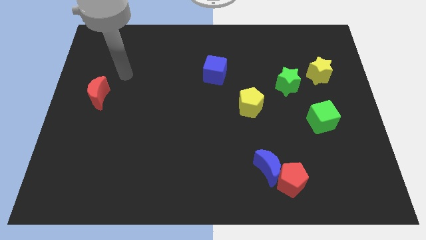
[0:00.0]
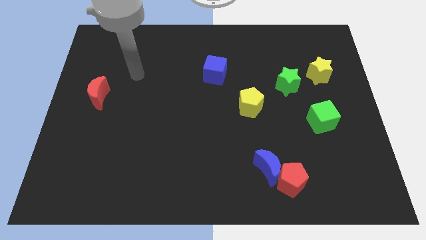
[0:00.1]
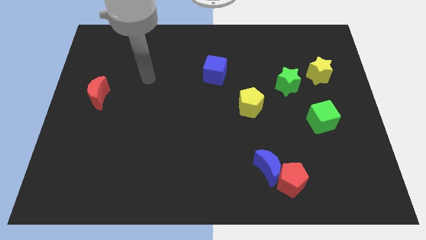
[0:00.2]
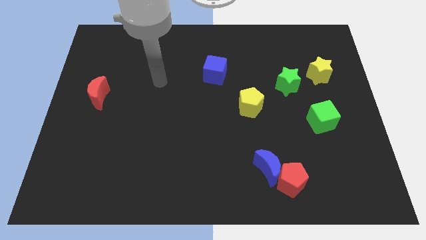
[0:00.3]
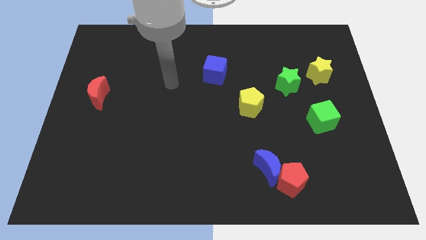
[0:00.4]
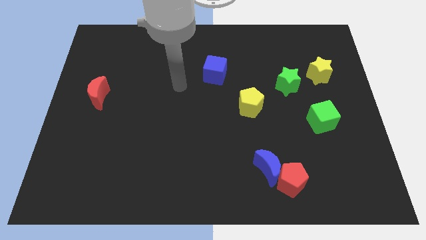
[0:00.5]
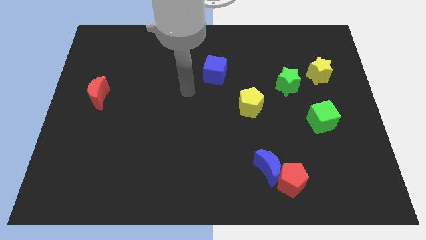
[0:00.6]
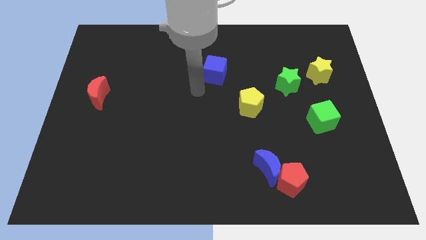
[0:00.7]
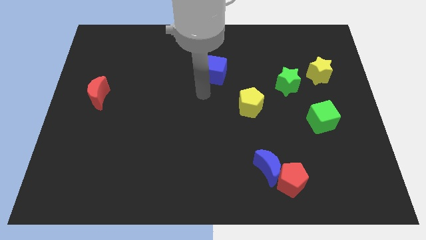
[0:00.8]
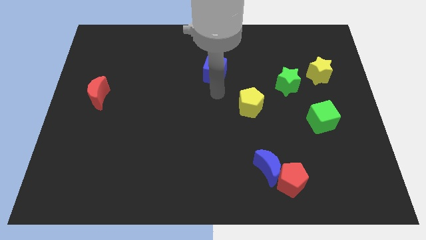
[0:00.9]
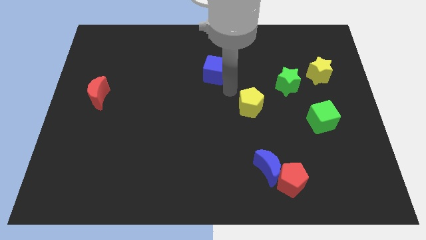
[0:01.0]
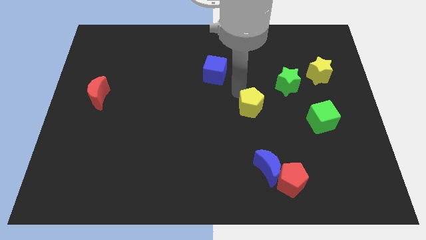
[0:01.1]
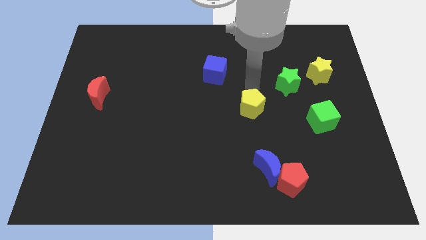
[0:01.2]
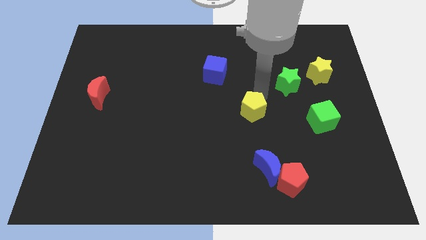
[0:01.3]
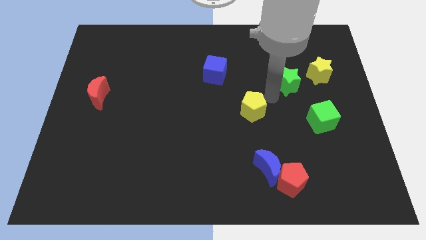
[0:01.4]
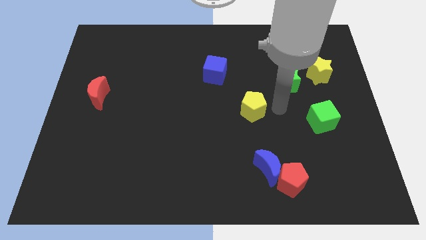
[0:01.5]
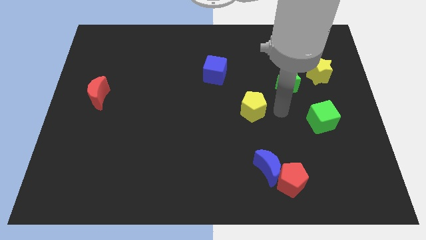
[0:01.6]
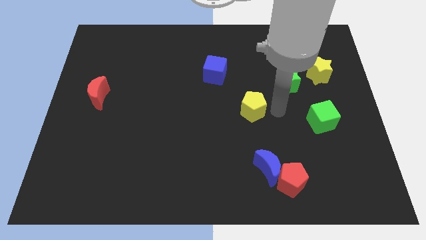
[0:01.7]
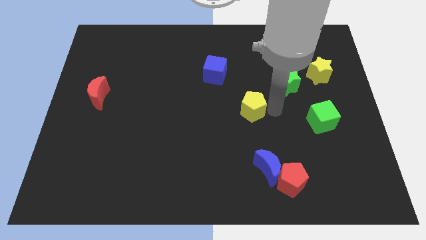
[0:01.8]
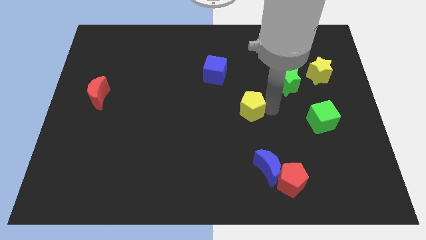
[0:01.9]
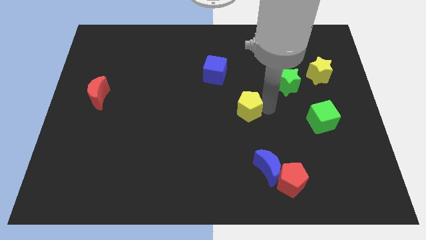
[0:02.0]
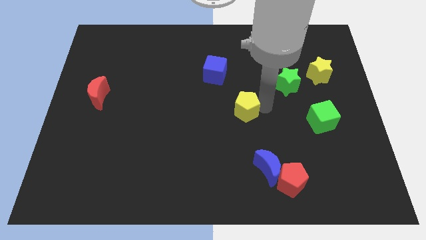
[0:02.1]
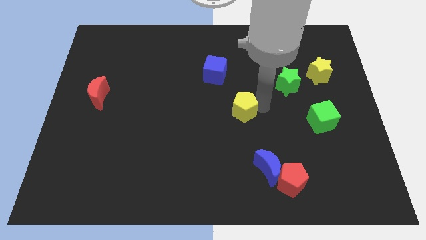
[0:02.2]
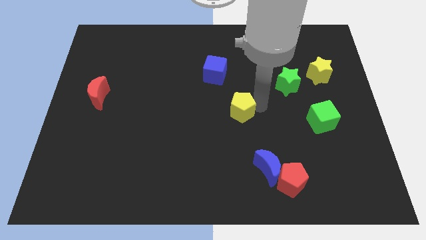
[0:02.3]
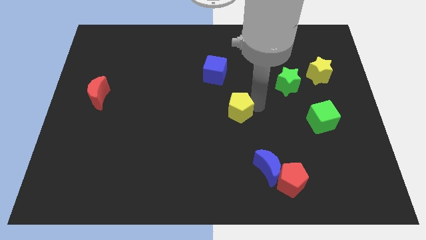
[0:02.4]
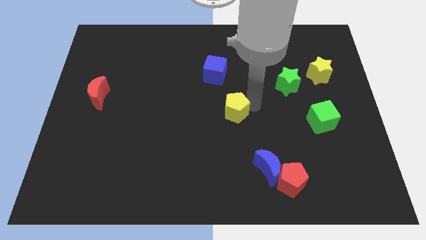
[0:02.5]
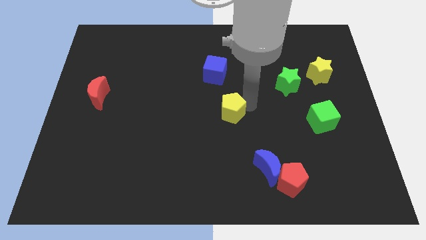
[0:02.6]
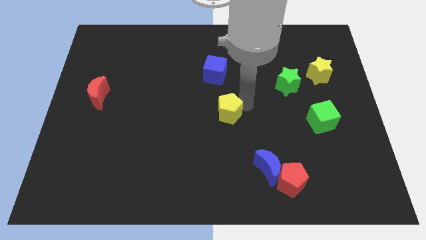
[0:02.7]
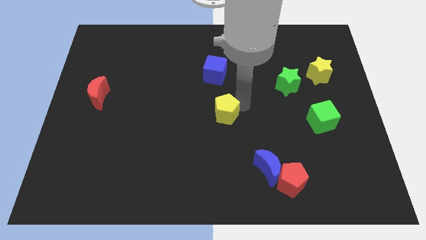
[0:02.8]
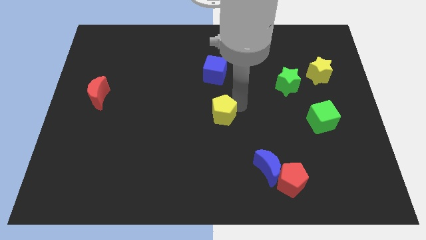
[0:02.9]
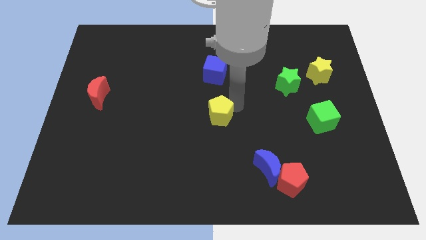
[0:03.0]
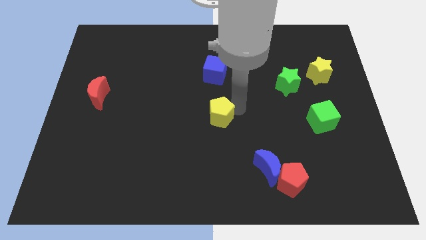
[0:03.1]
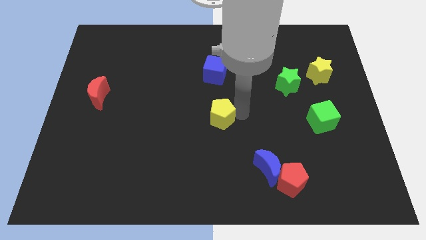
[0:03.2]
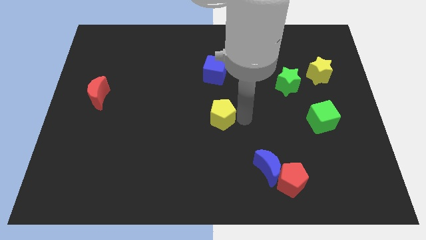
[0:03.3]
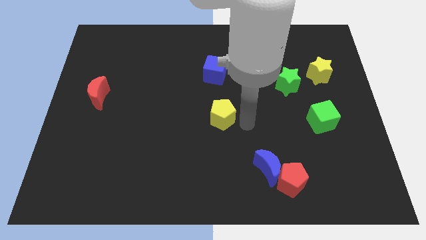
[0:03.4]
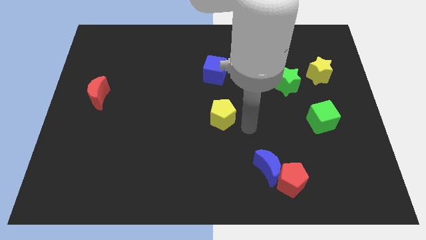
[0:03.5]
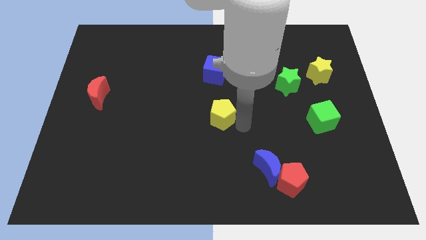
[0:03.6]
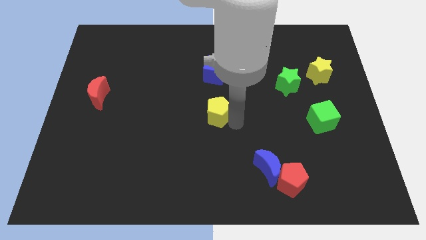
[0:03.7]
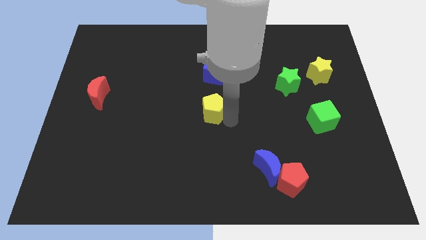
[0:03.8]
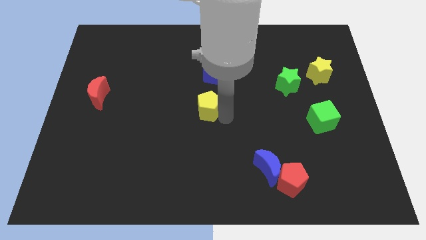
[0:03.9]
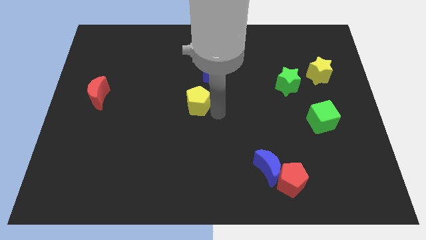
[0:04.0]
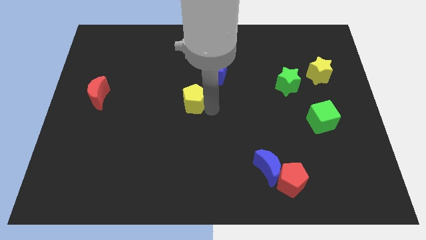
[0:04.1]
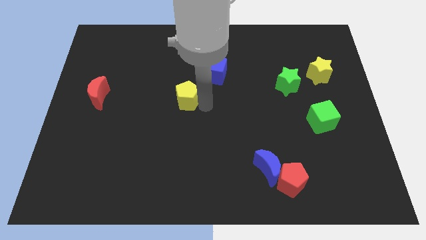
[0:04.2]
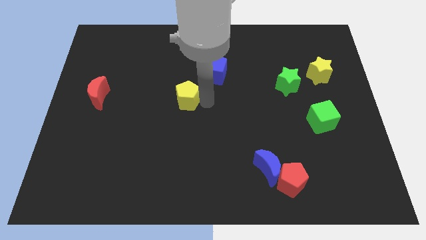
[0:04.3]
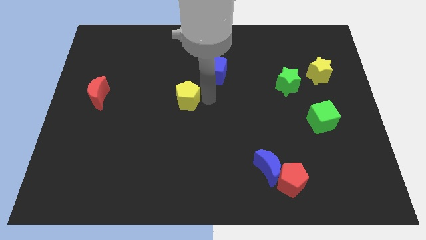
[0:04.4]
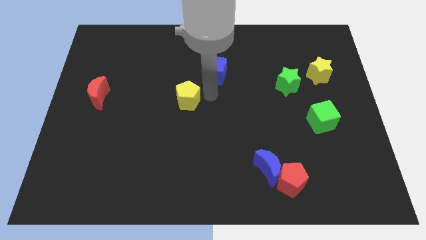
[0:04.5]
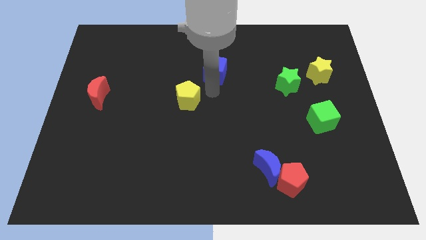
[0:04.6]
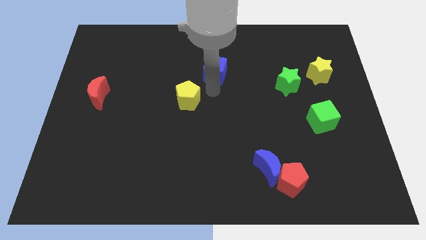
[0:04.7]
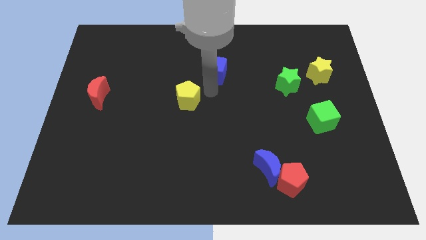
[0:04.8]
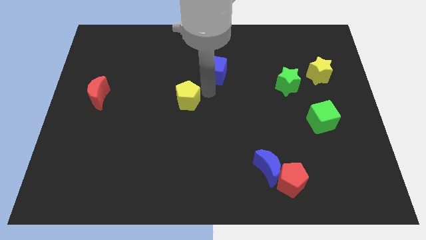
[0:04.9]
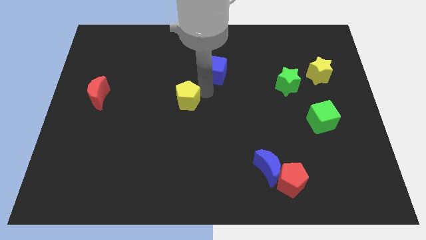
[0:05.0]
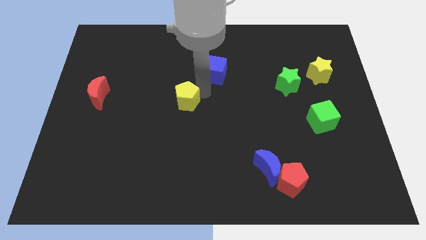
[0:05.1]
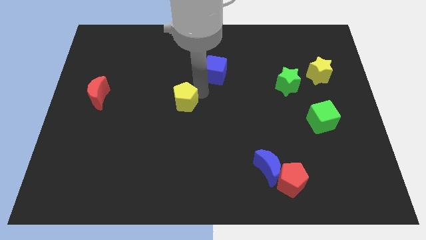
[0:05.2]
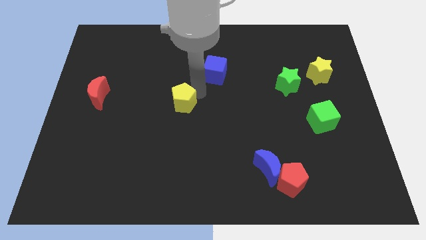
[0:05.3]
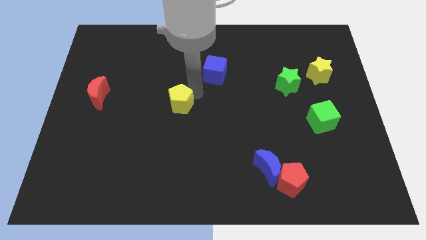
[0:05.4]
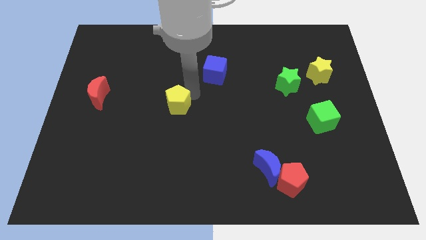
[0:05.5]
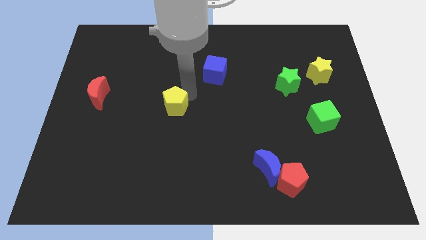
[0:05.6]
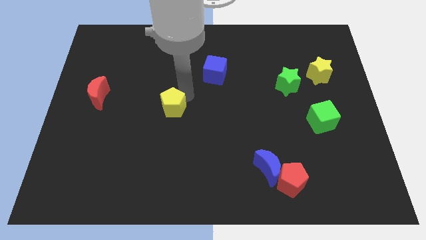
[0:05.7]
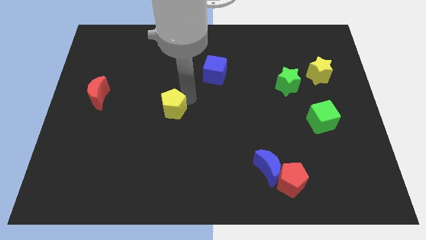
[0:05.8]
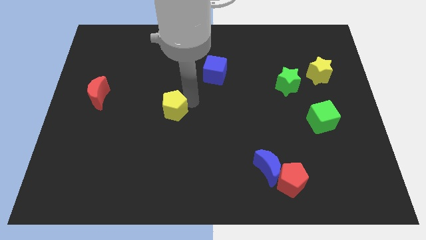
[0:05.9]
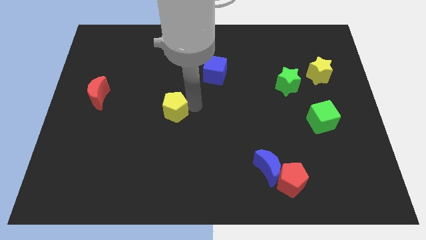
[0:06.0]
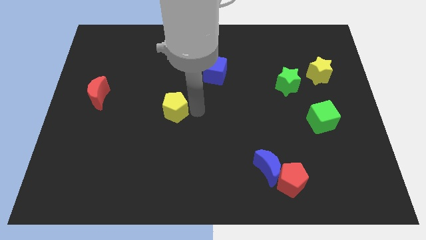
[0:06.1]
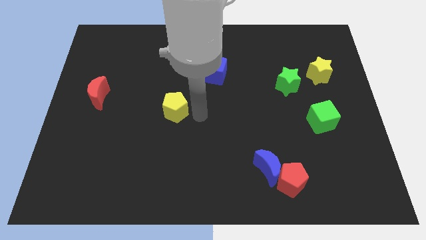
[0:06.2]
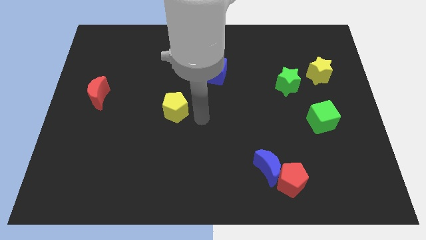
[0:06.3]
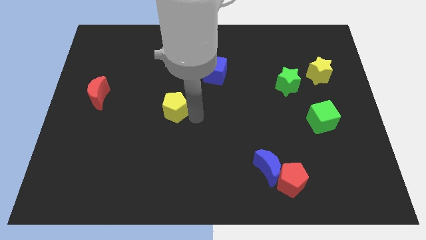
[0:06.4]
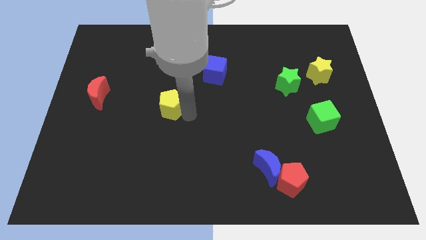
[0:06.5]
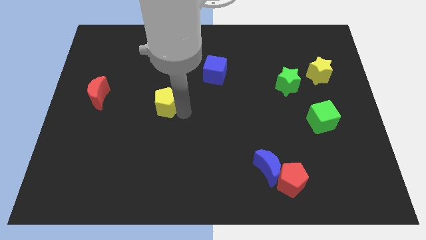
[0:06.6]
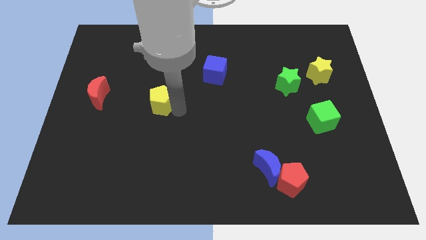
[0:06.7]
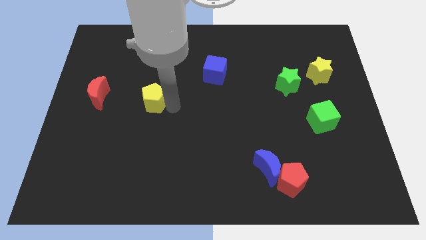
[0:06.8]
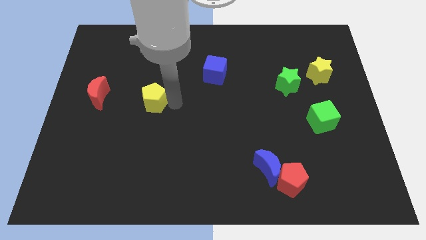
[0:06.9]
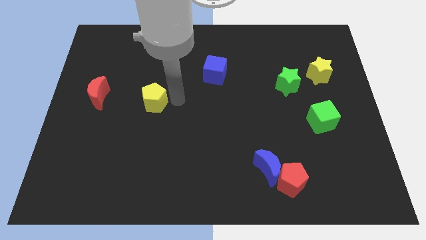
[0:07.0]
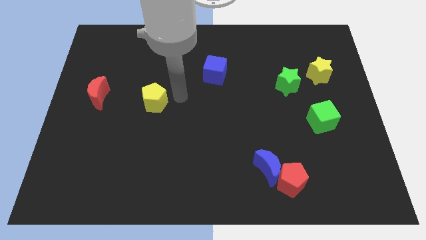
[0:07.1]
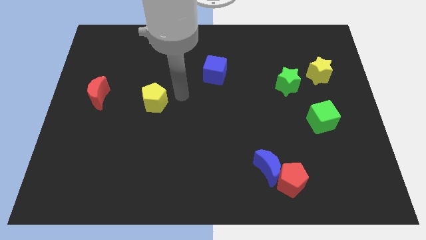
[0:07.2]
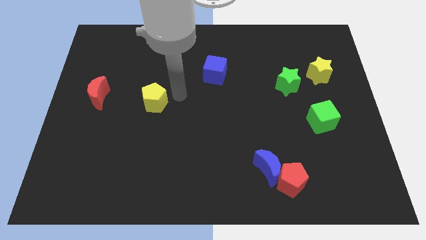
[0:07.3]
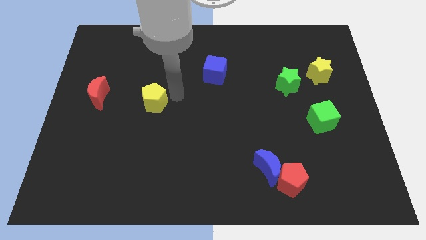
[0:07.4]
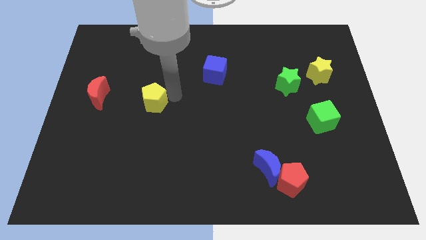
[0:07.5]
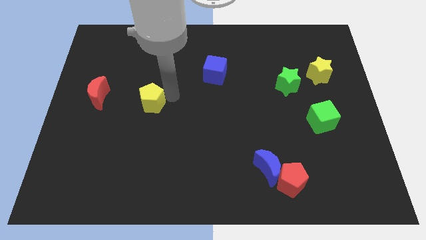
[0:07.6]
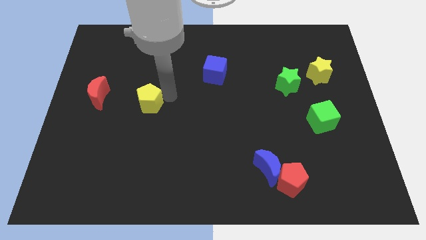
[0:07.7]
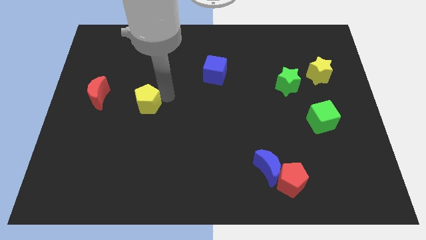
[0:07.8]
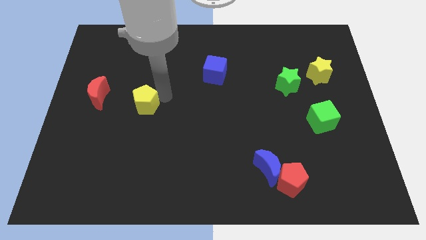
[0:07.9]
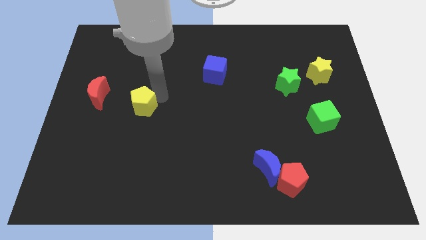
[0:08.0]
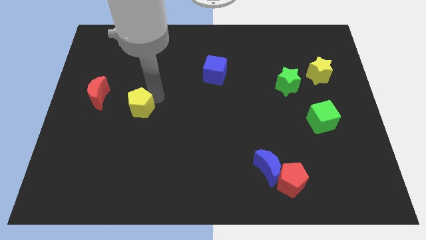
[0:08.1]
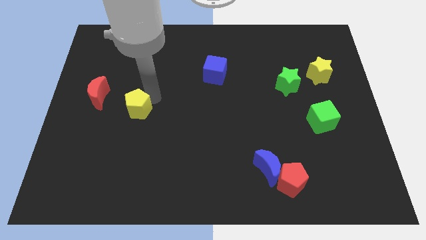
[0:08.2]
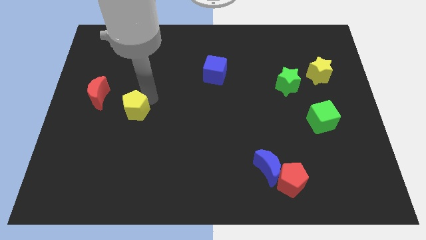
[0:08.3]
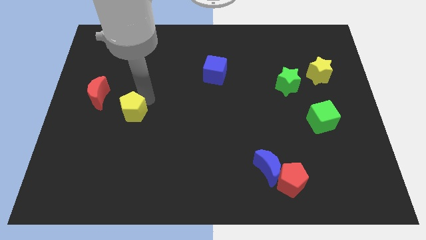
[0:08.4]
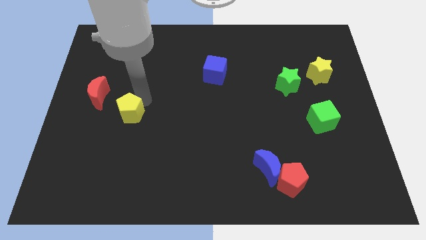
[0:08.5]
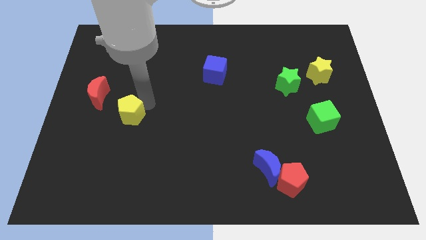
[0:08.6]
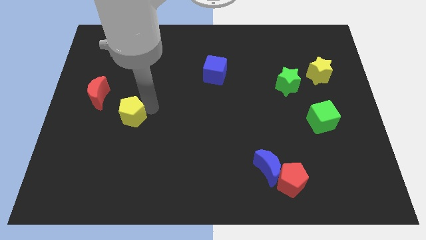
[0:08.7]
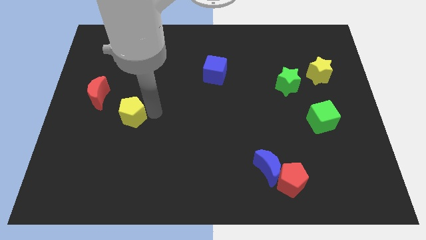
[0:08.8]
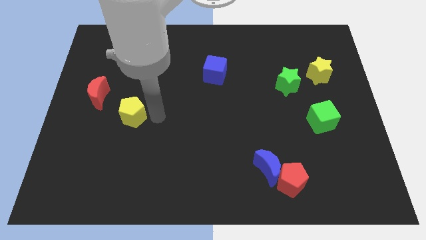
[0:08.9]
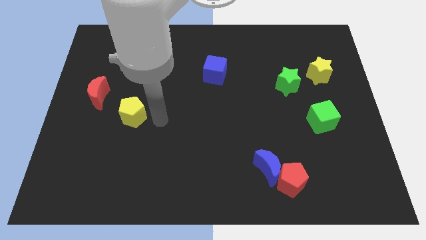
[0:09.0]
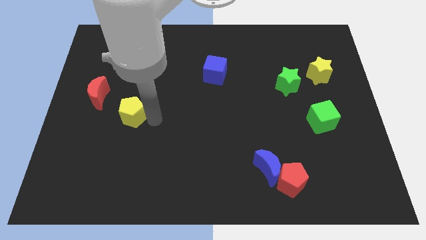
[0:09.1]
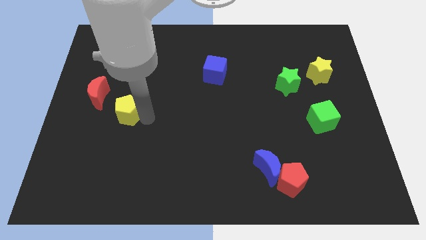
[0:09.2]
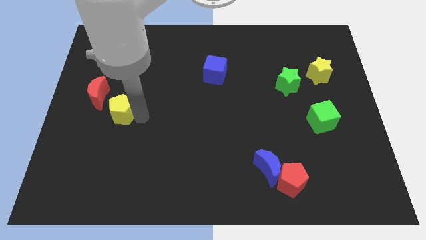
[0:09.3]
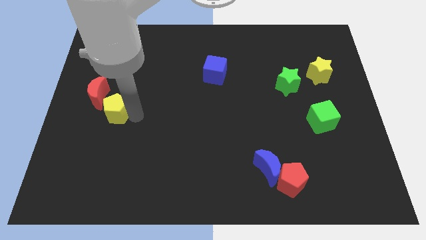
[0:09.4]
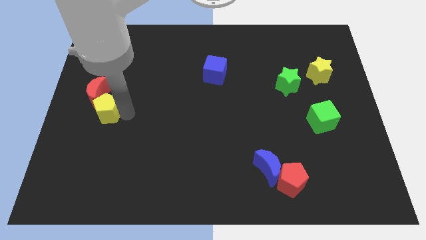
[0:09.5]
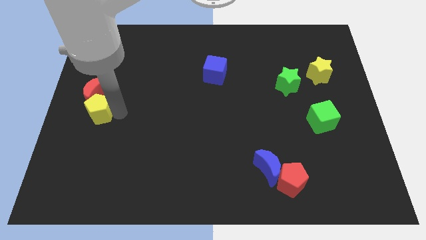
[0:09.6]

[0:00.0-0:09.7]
move the yellow pentagon to the left side
